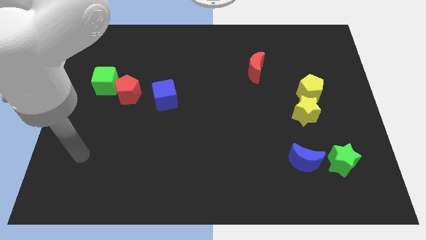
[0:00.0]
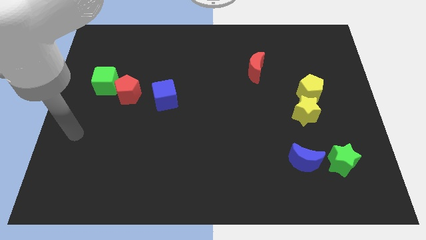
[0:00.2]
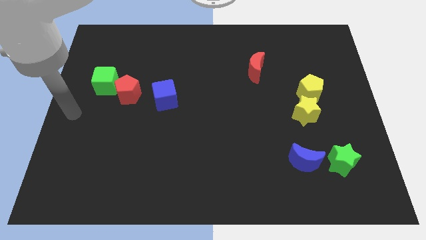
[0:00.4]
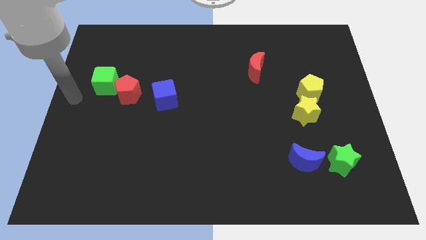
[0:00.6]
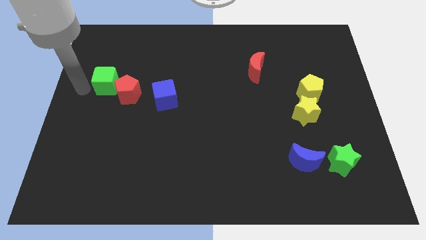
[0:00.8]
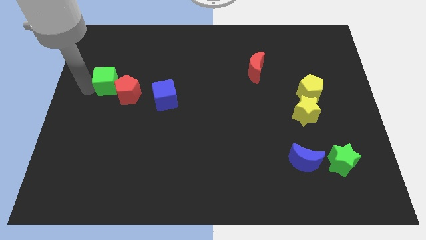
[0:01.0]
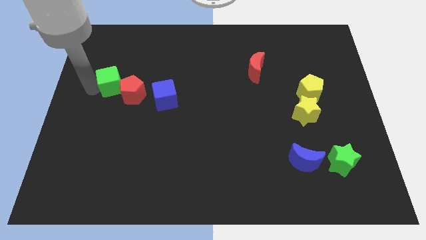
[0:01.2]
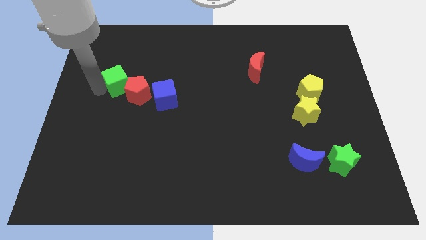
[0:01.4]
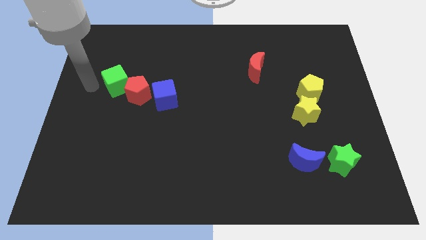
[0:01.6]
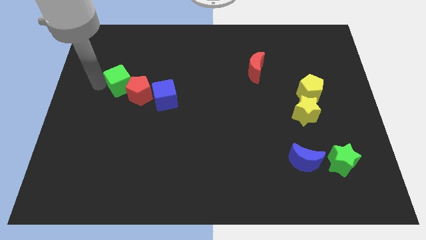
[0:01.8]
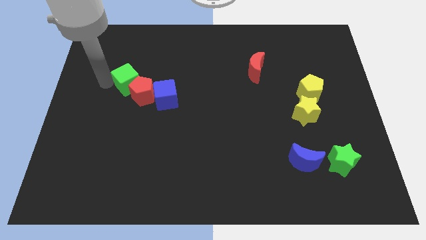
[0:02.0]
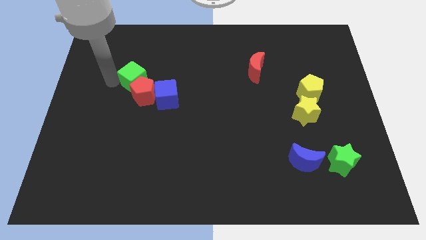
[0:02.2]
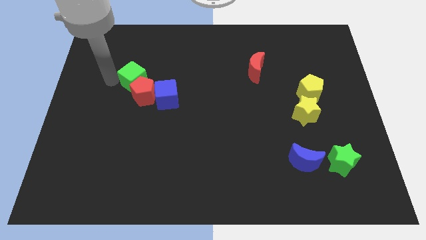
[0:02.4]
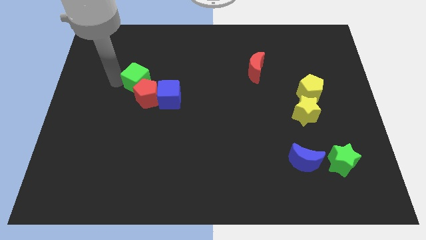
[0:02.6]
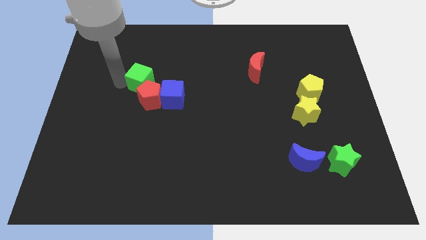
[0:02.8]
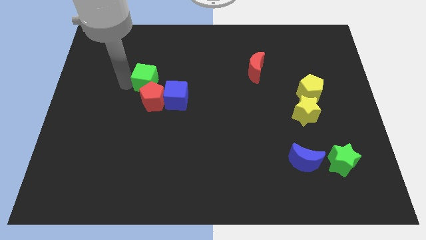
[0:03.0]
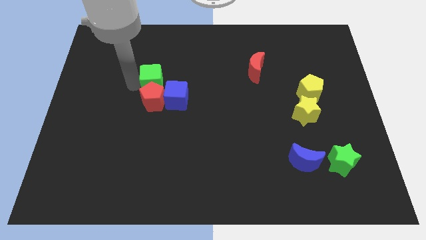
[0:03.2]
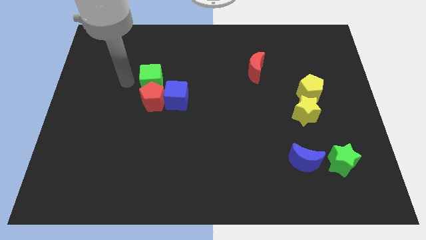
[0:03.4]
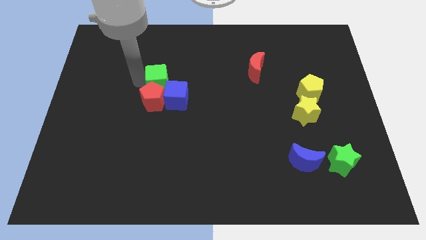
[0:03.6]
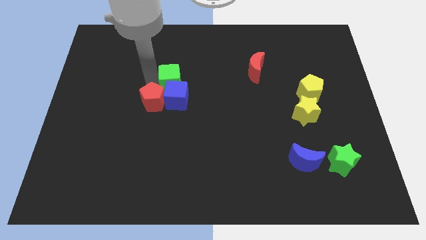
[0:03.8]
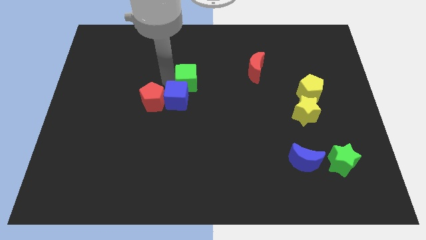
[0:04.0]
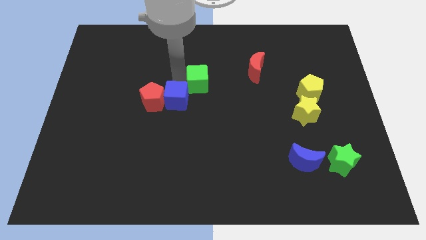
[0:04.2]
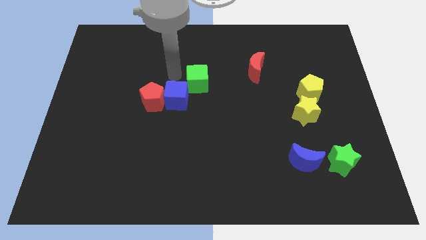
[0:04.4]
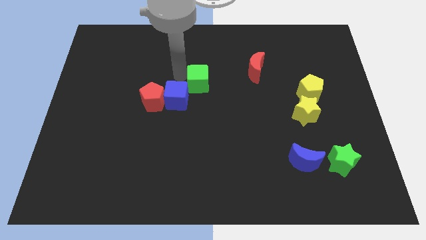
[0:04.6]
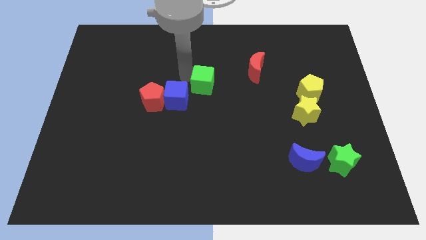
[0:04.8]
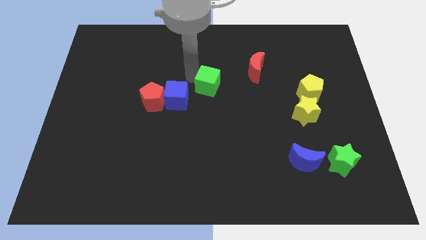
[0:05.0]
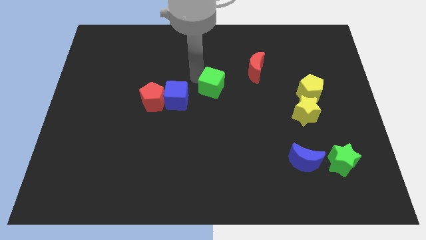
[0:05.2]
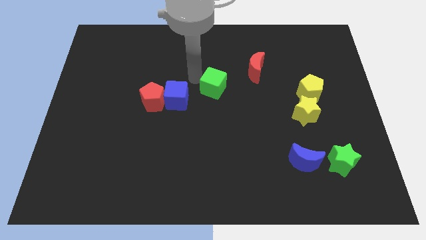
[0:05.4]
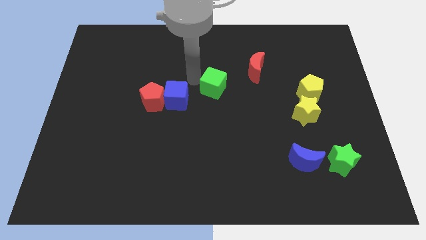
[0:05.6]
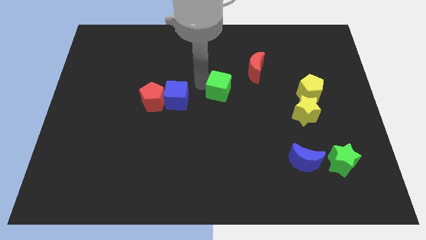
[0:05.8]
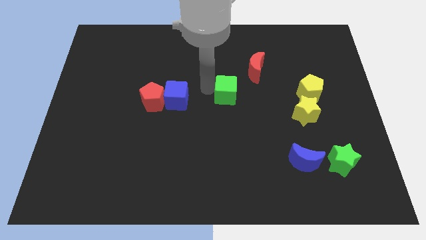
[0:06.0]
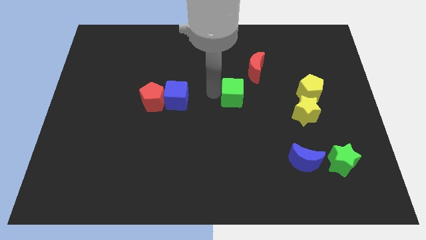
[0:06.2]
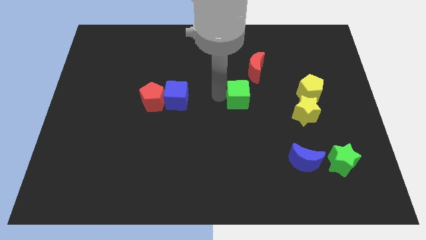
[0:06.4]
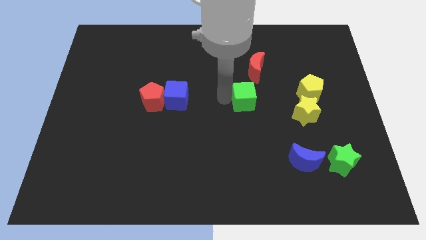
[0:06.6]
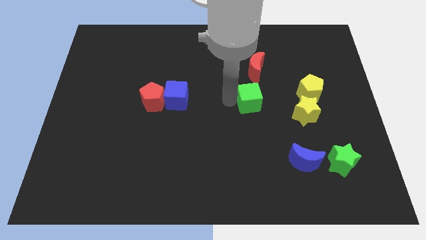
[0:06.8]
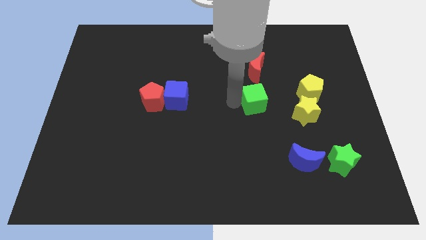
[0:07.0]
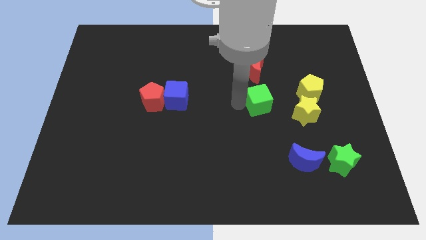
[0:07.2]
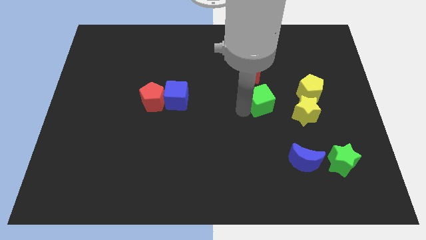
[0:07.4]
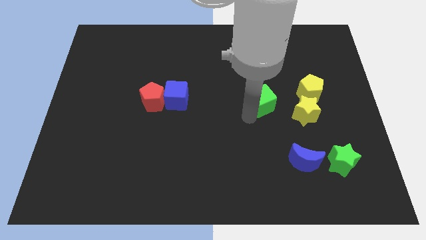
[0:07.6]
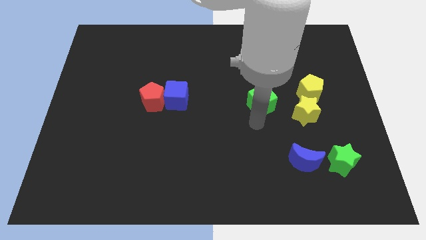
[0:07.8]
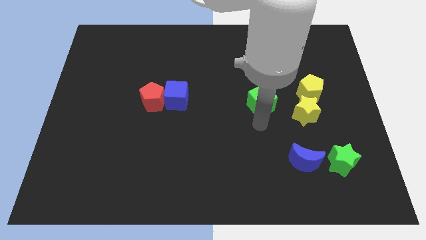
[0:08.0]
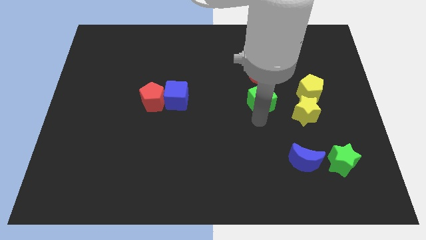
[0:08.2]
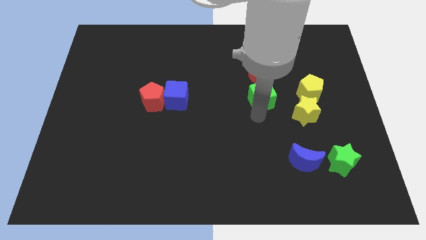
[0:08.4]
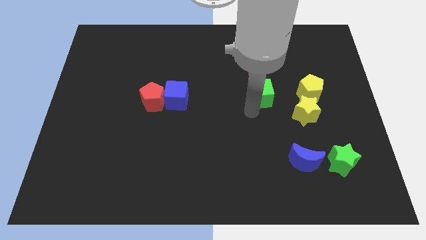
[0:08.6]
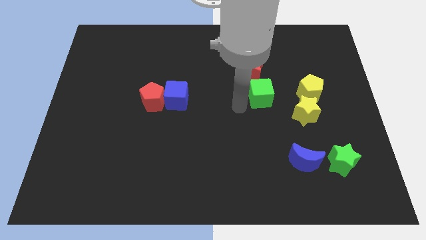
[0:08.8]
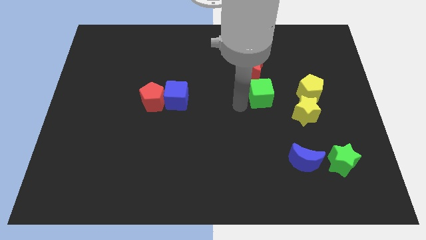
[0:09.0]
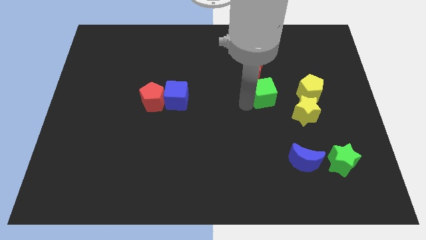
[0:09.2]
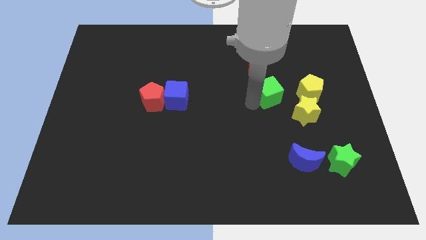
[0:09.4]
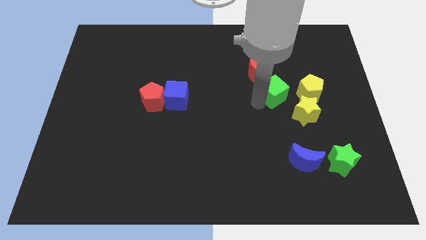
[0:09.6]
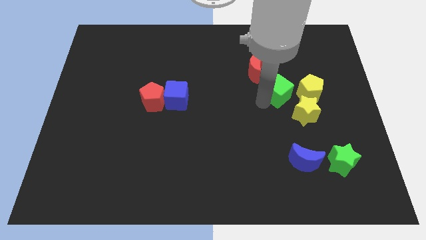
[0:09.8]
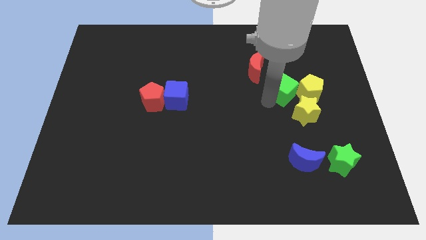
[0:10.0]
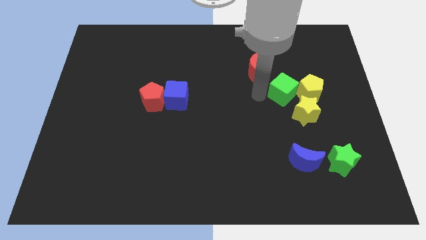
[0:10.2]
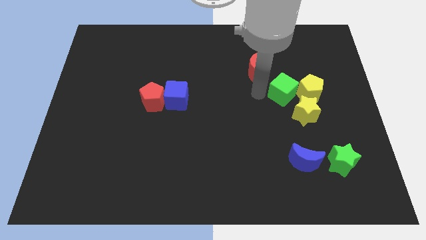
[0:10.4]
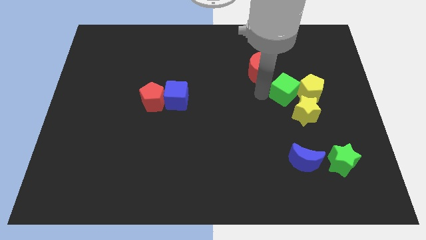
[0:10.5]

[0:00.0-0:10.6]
slide the green cube close to the yellow pentagon

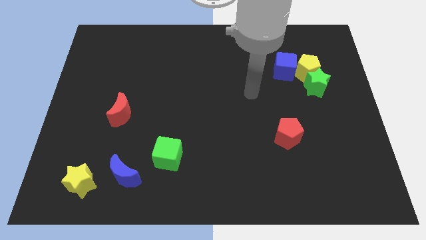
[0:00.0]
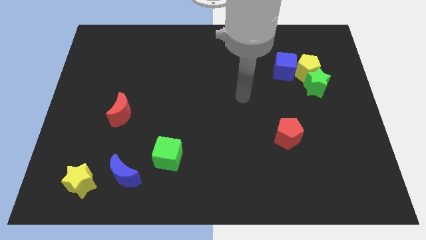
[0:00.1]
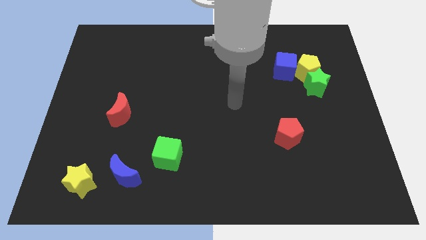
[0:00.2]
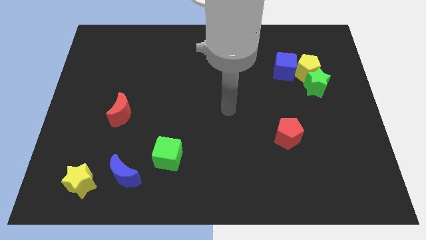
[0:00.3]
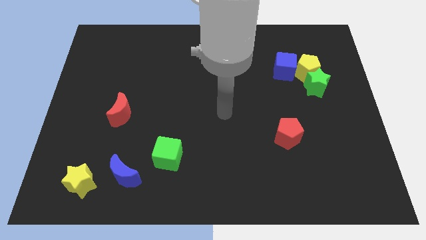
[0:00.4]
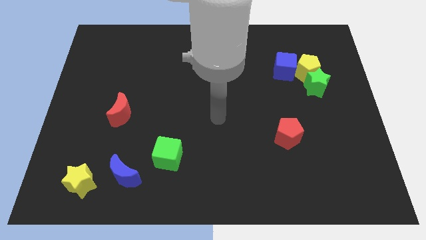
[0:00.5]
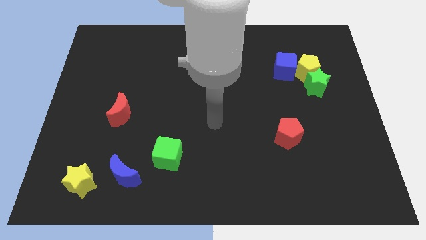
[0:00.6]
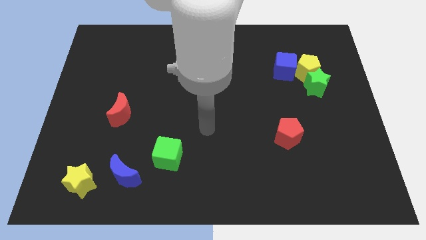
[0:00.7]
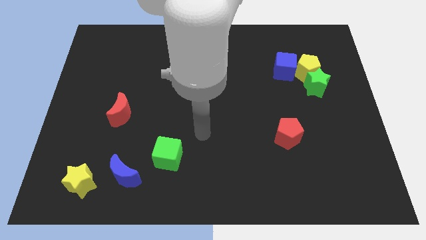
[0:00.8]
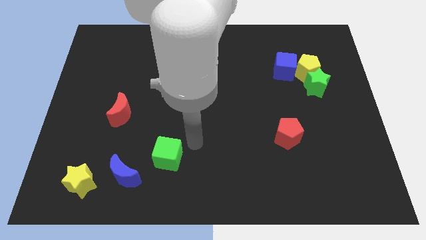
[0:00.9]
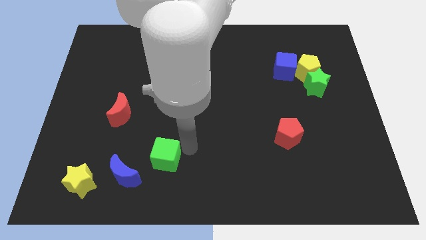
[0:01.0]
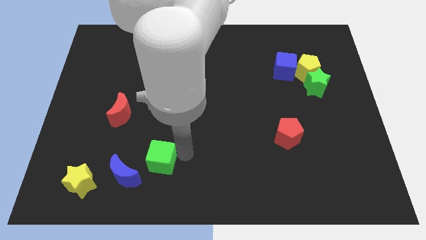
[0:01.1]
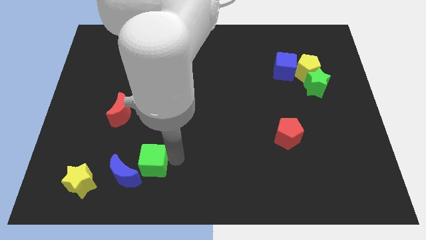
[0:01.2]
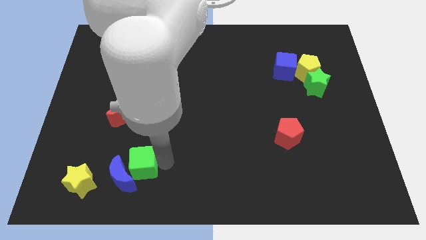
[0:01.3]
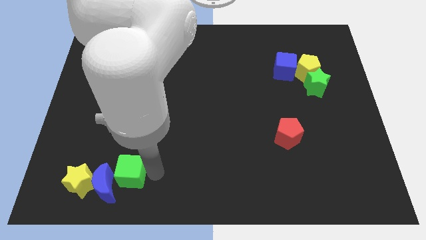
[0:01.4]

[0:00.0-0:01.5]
put the blue moon close to the yellow star

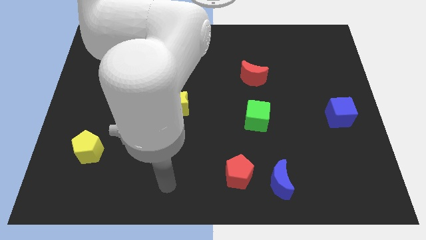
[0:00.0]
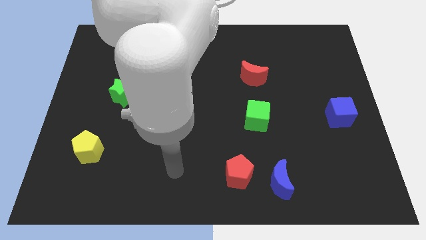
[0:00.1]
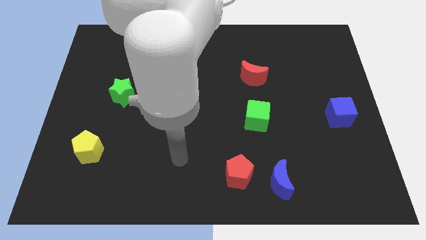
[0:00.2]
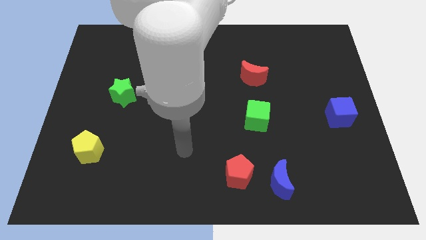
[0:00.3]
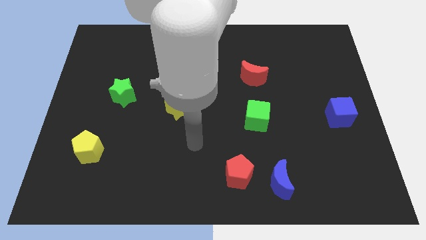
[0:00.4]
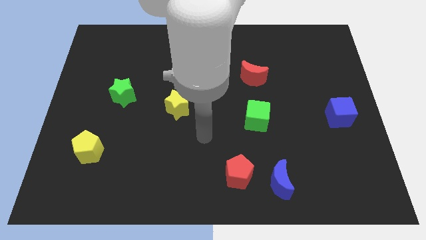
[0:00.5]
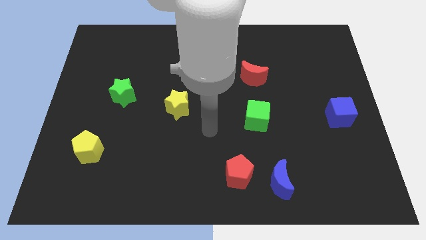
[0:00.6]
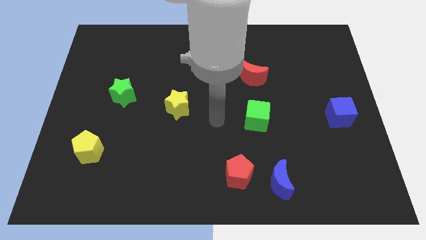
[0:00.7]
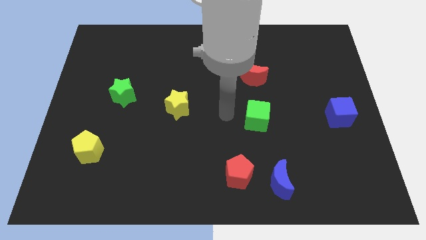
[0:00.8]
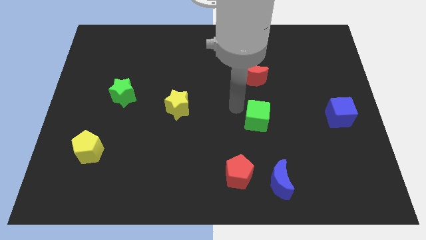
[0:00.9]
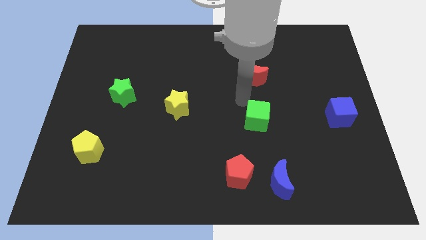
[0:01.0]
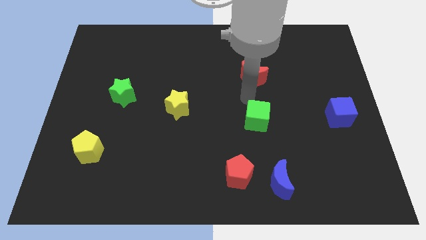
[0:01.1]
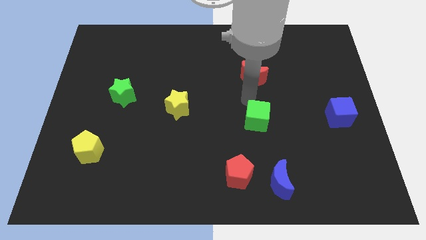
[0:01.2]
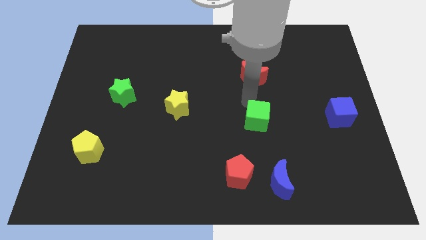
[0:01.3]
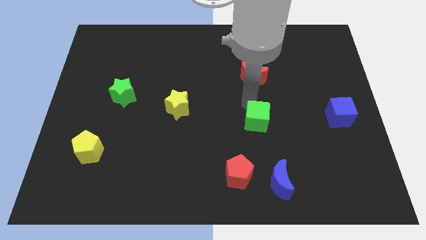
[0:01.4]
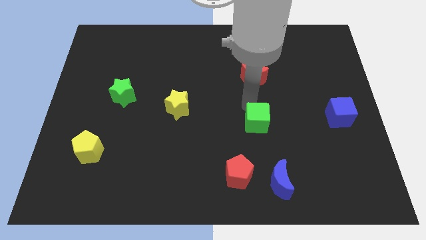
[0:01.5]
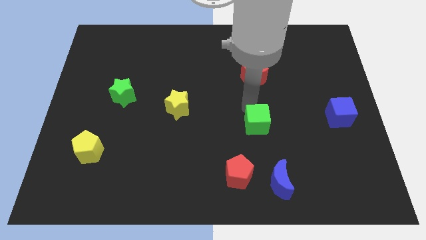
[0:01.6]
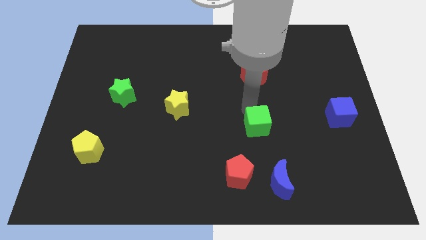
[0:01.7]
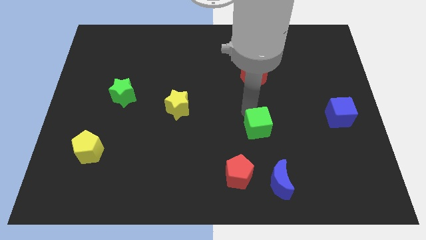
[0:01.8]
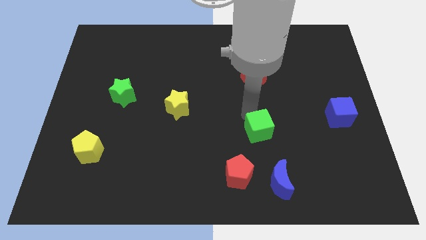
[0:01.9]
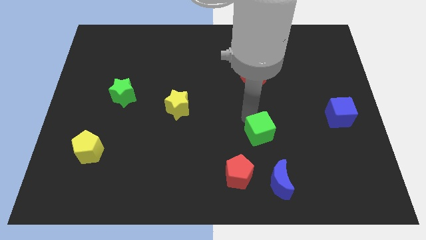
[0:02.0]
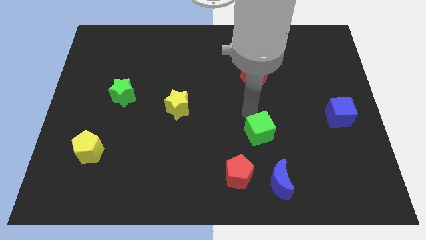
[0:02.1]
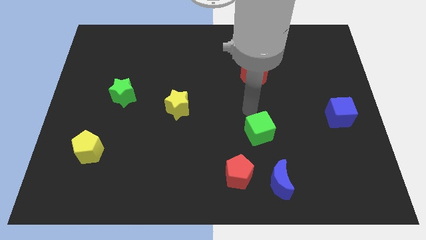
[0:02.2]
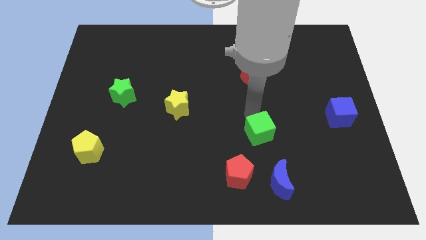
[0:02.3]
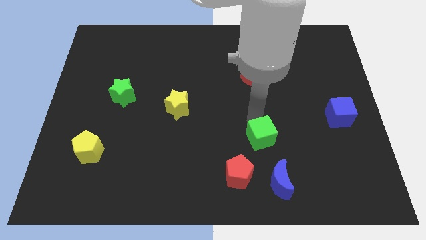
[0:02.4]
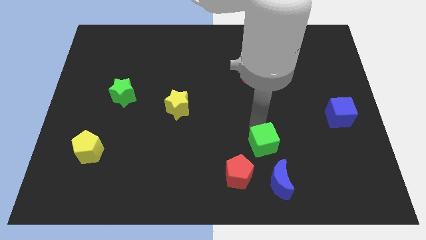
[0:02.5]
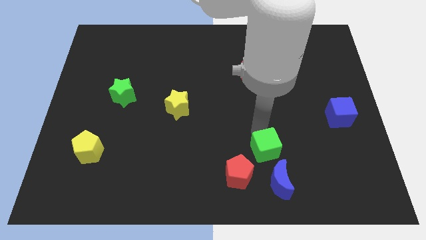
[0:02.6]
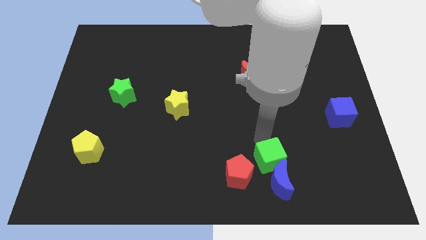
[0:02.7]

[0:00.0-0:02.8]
slide the green cube towards the blue moon
